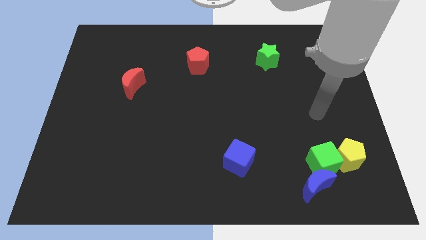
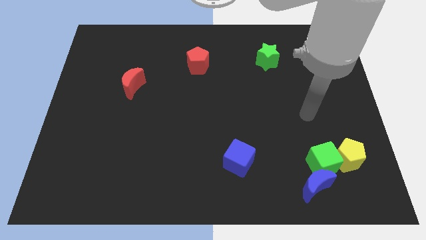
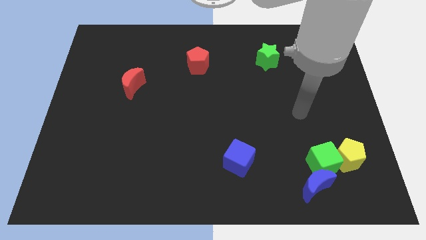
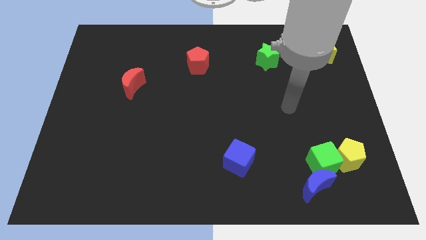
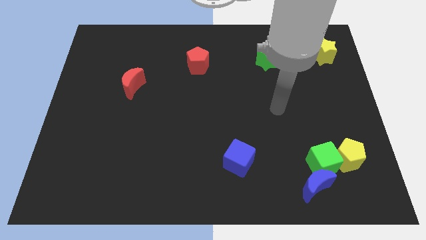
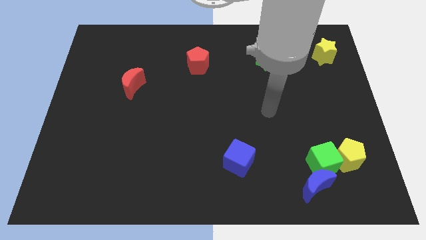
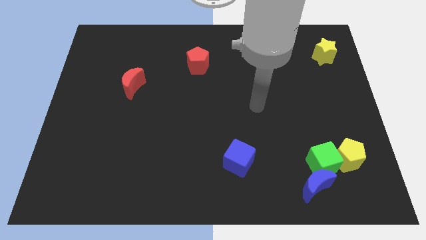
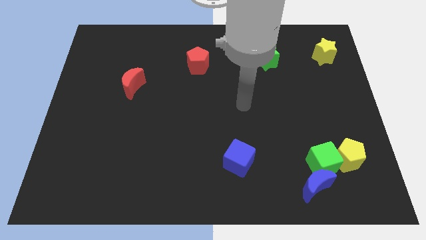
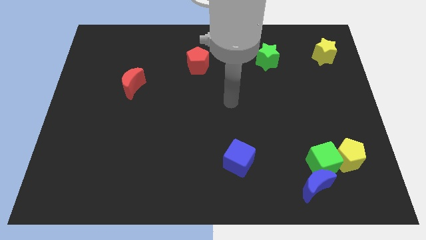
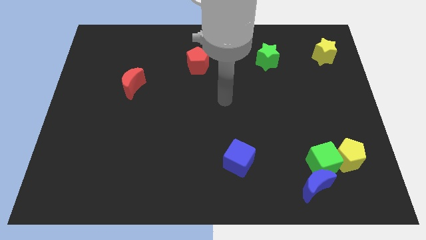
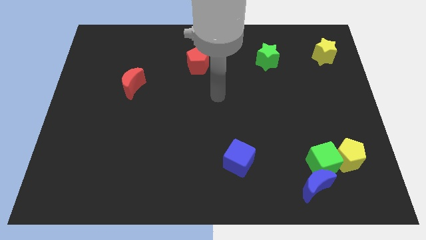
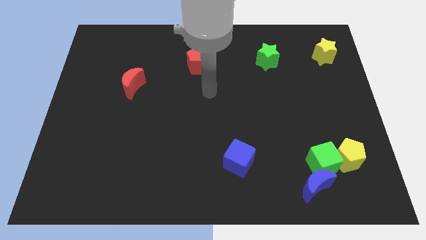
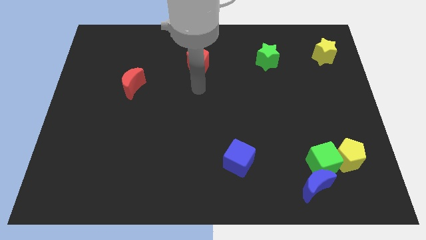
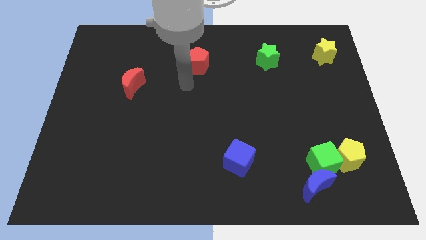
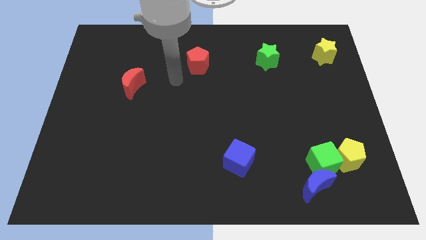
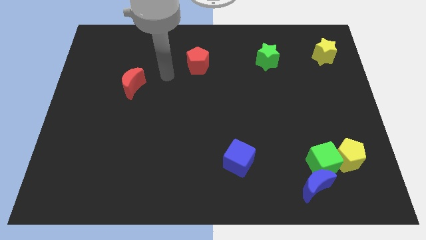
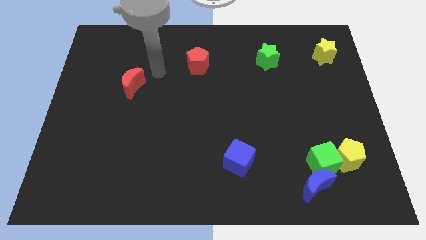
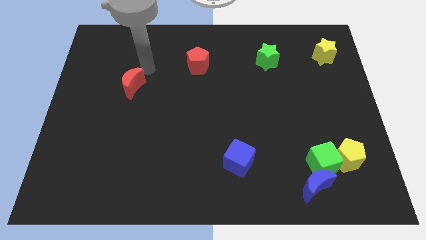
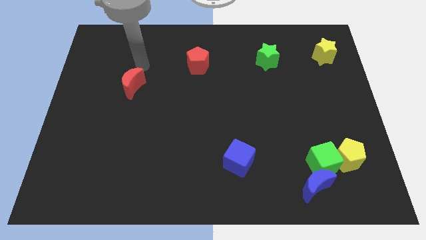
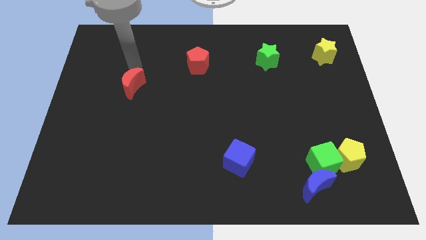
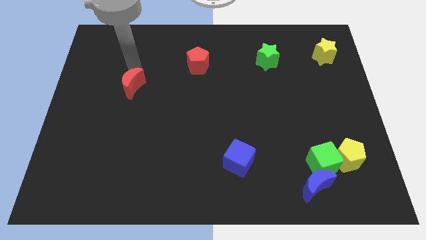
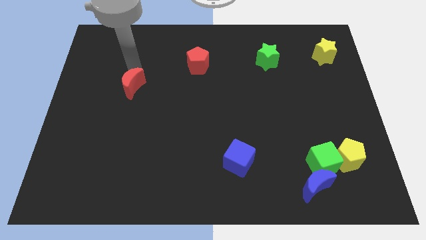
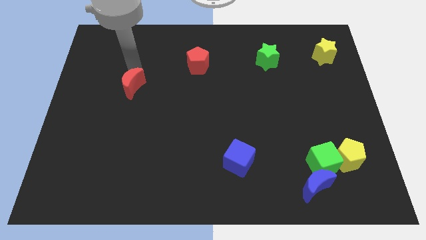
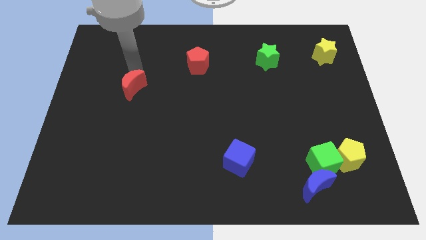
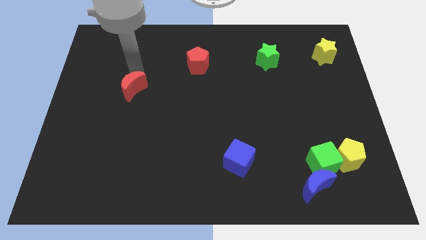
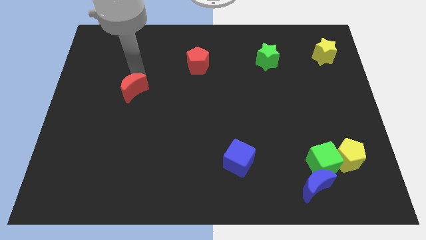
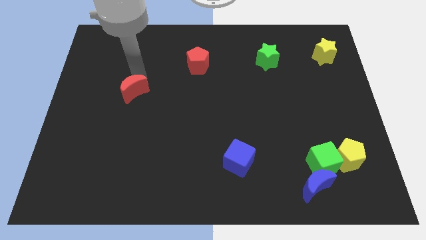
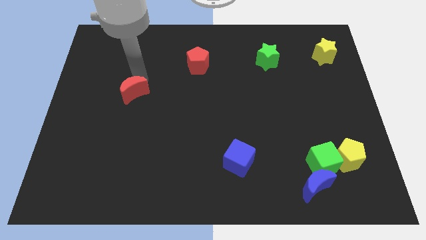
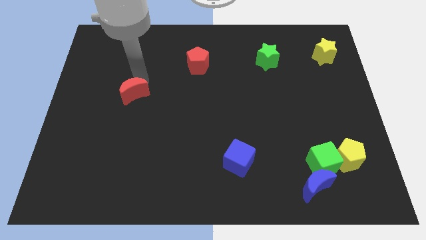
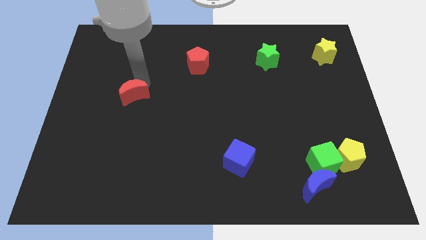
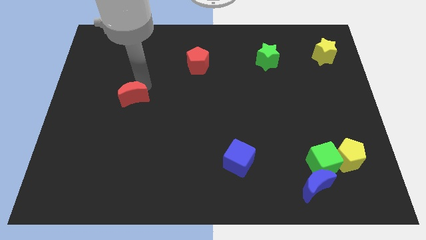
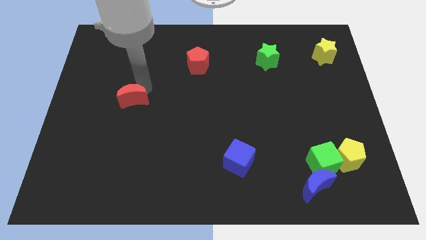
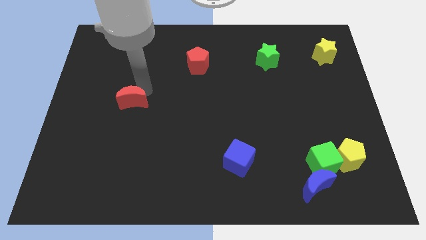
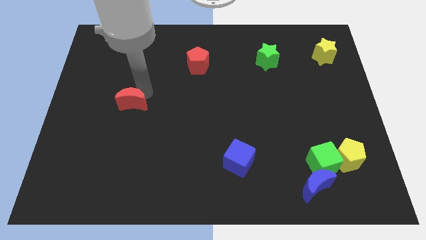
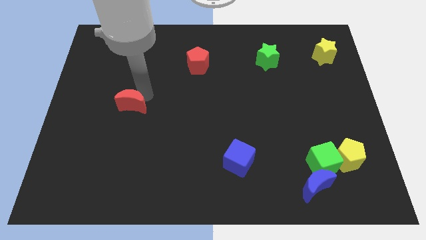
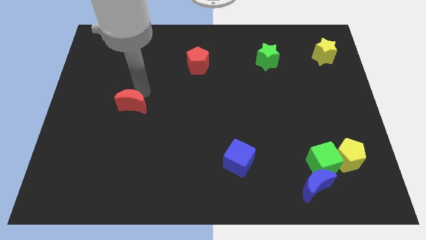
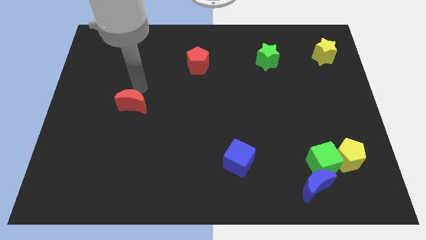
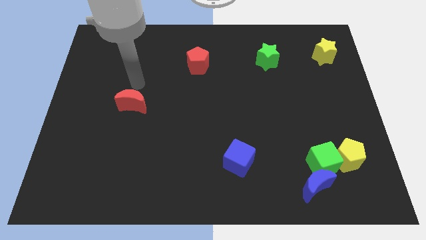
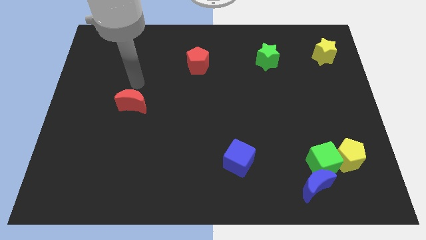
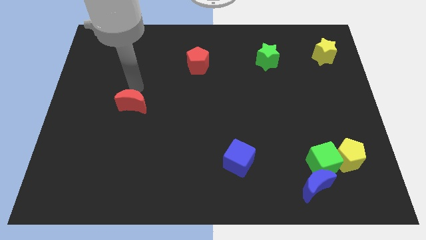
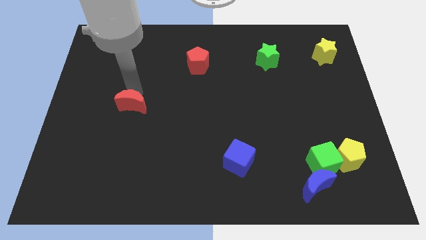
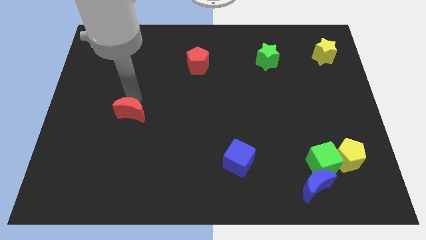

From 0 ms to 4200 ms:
slide the red moon down a little

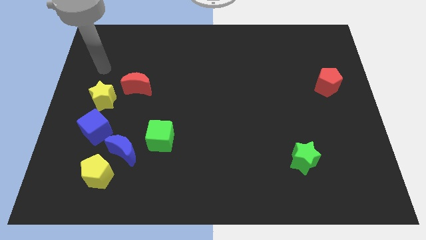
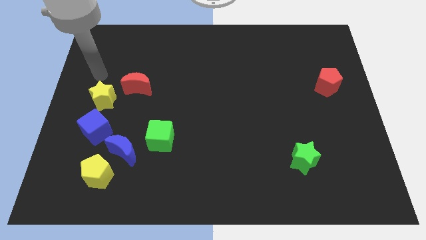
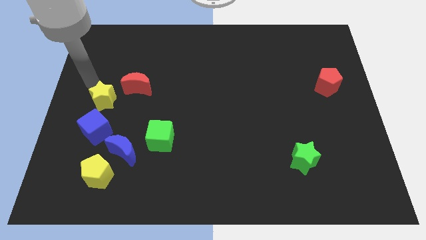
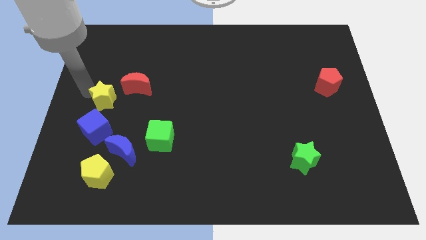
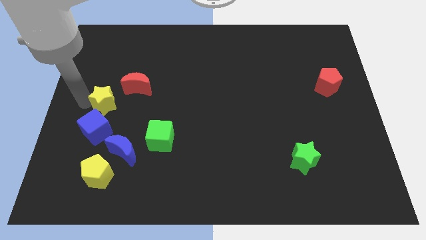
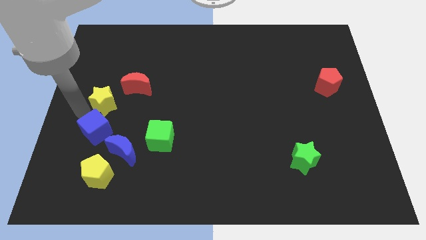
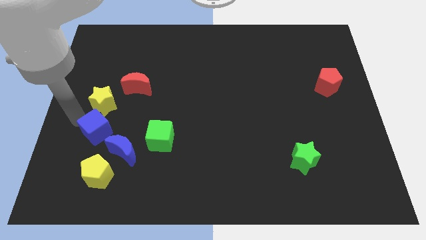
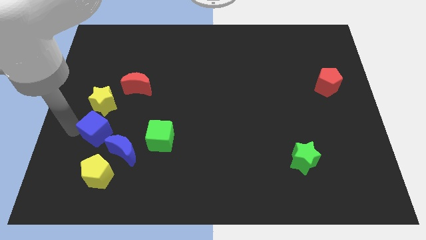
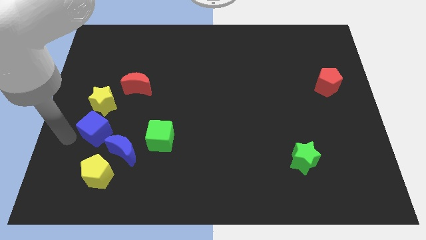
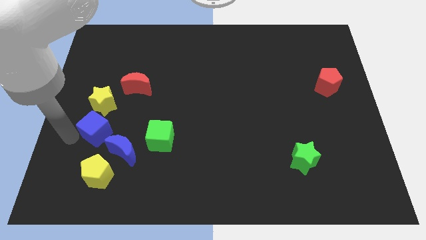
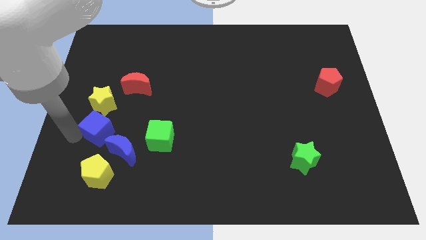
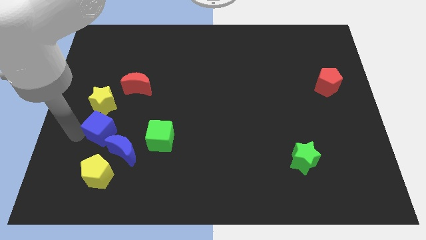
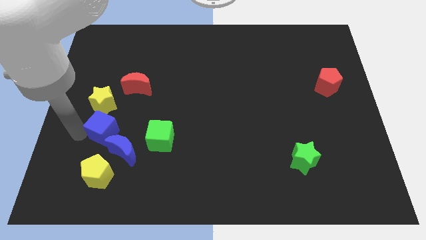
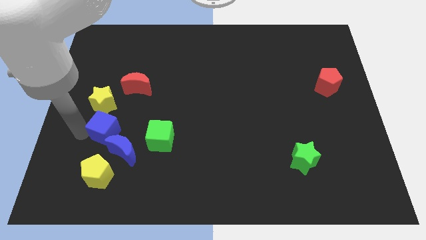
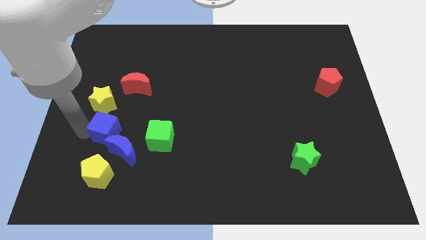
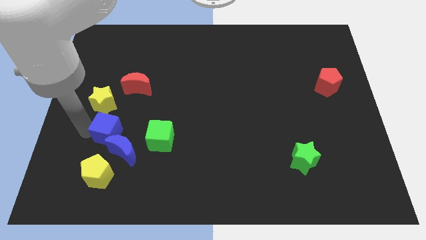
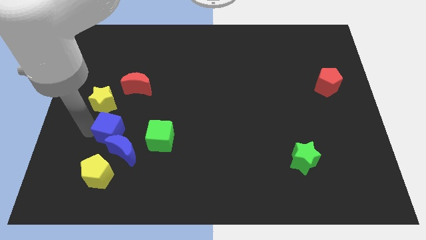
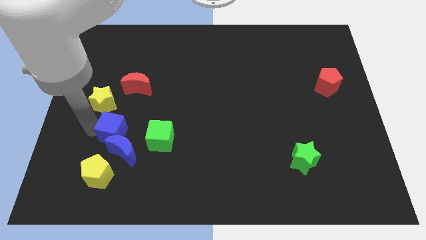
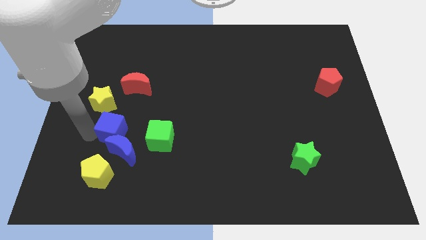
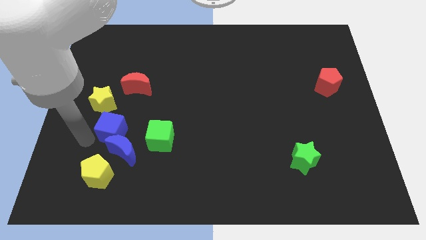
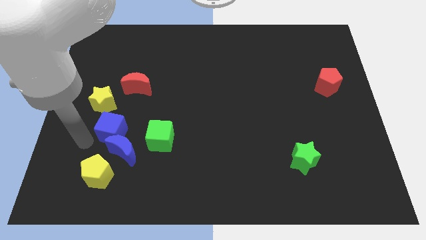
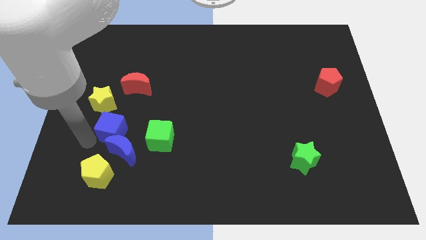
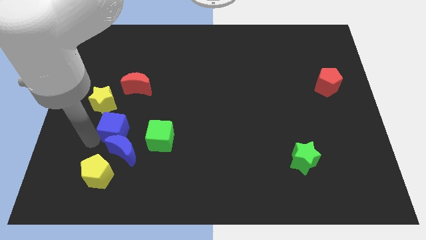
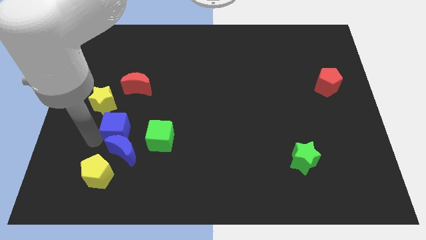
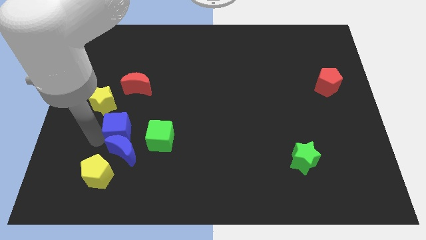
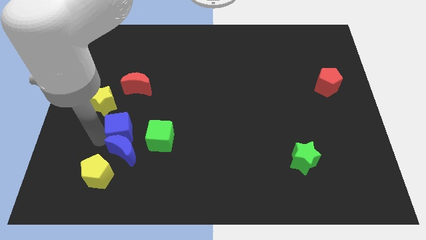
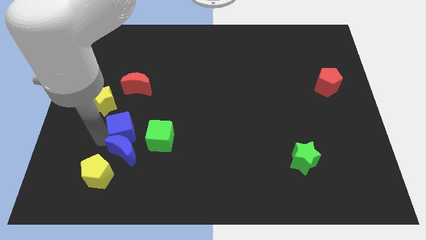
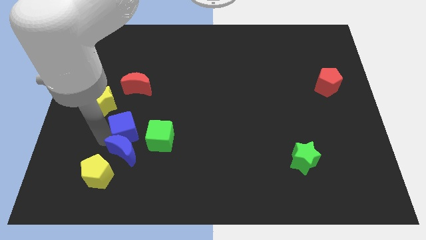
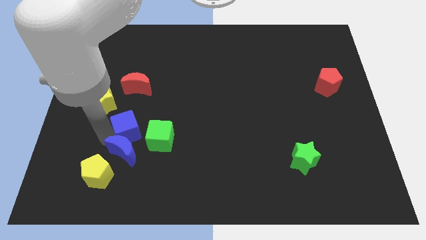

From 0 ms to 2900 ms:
slide the blue cube a bit to the right

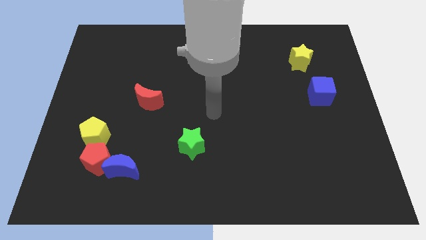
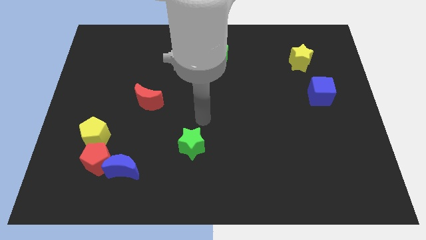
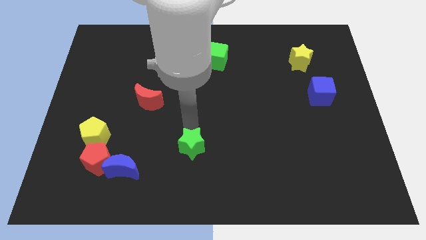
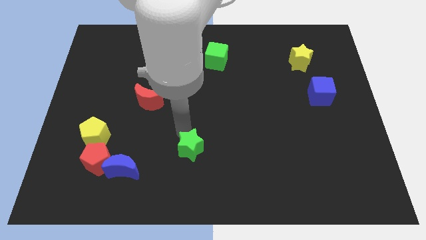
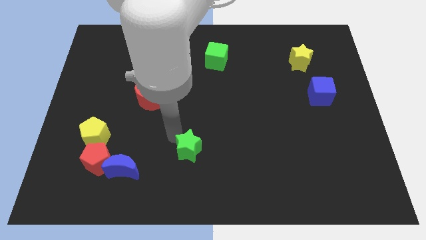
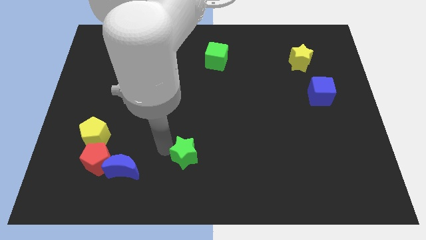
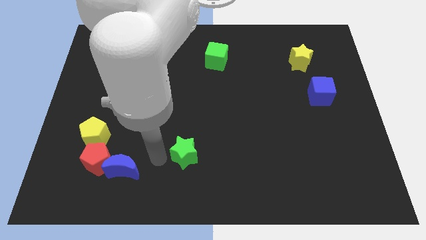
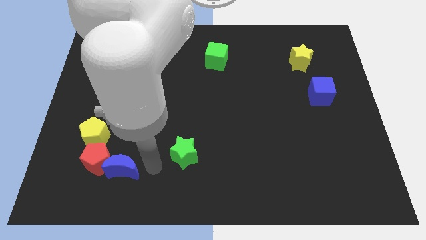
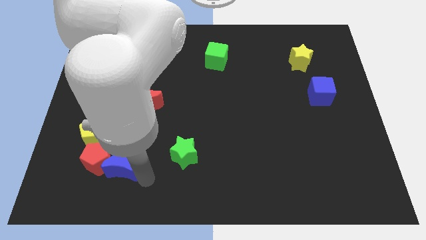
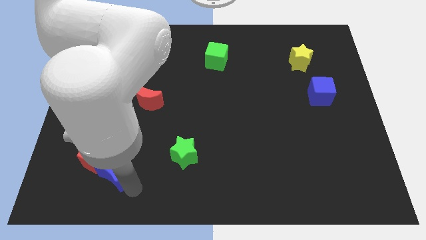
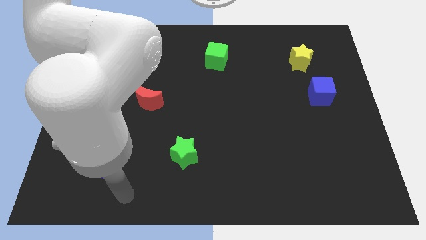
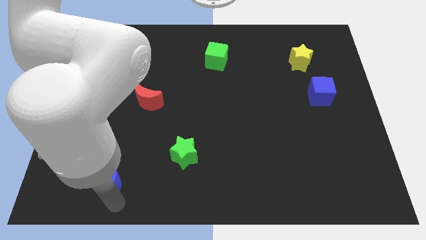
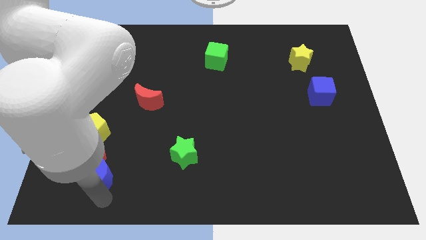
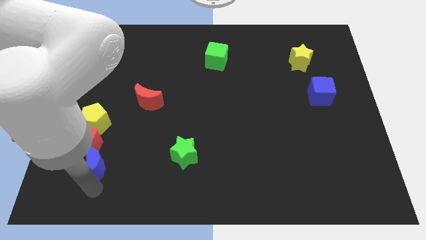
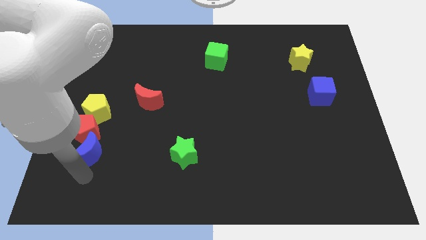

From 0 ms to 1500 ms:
push the red pentagon up somewhat
